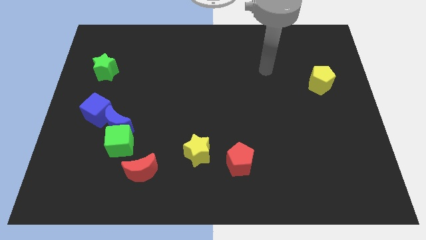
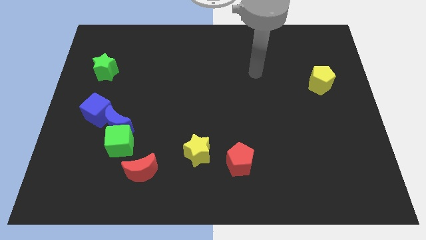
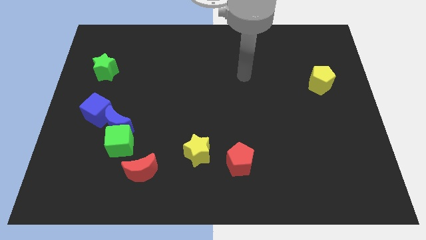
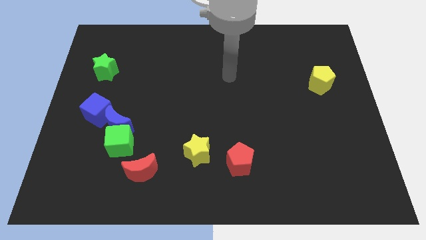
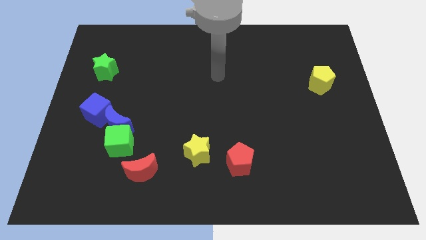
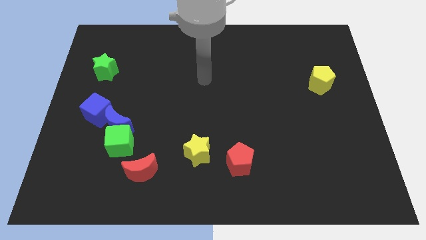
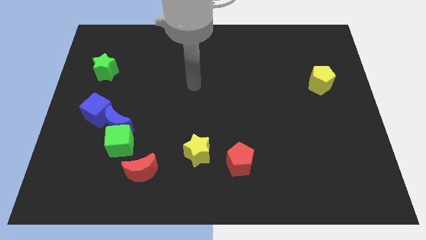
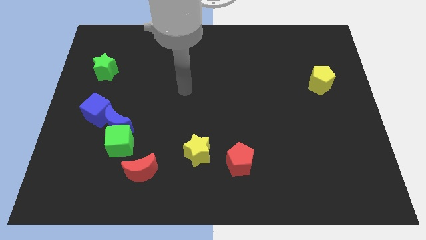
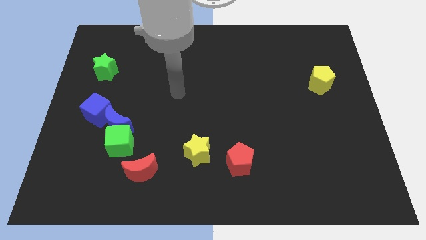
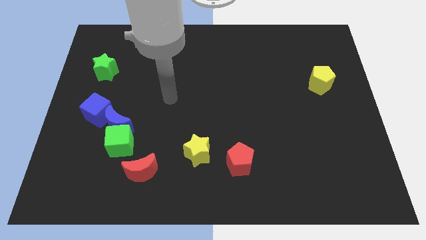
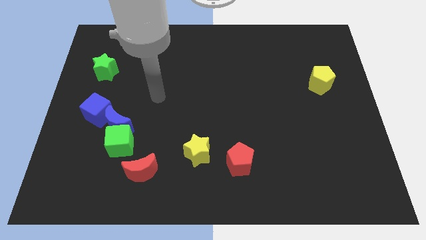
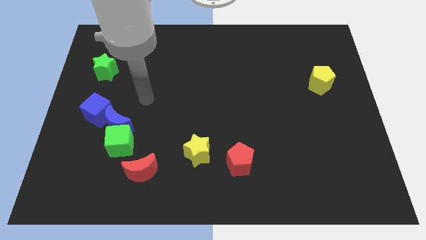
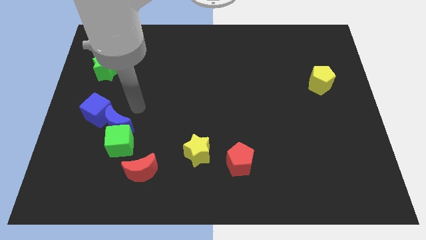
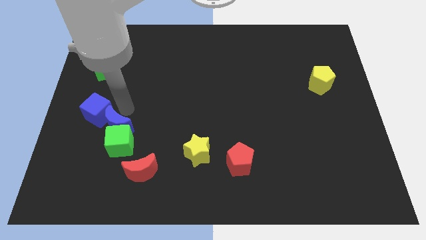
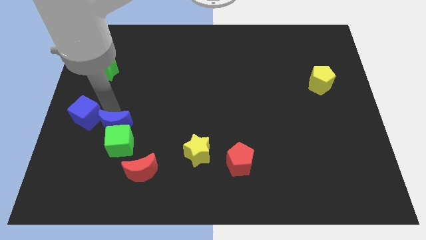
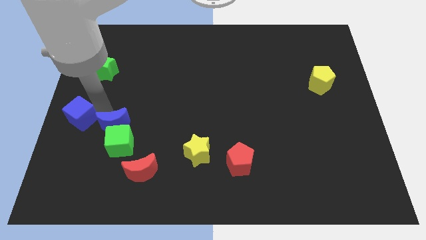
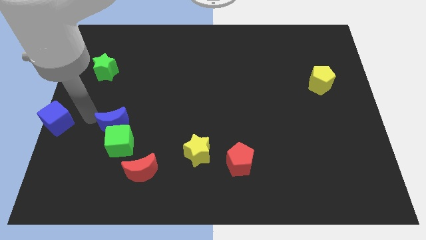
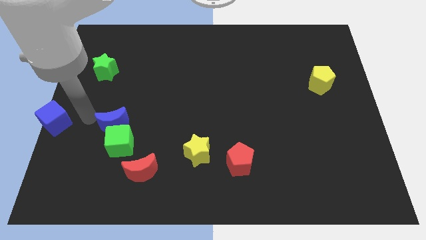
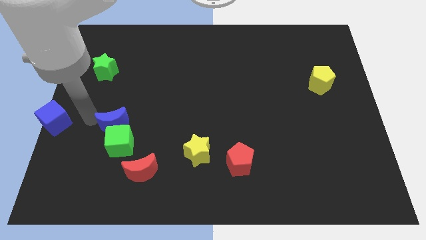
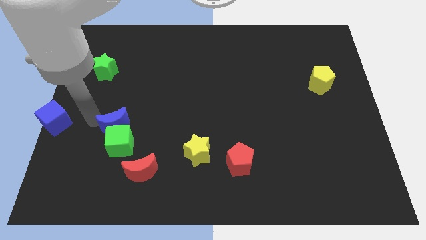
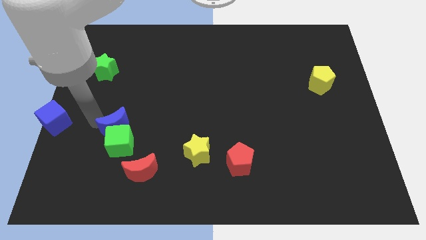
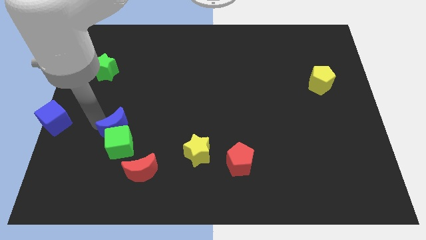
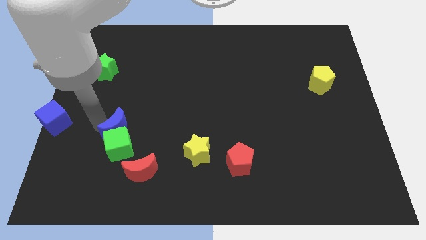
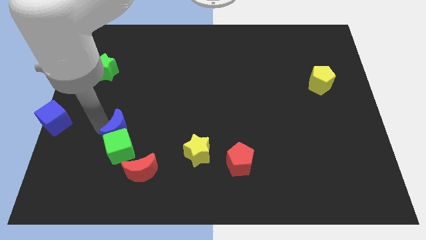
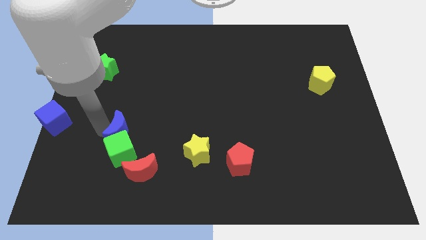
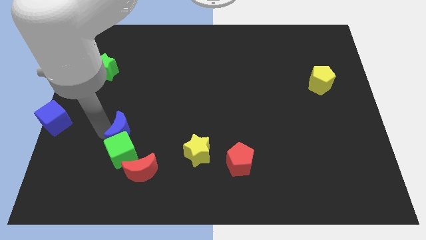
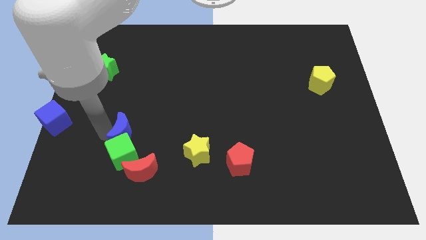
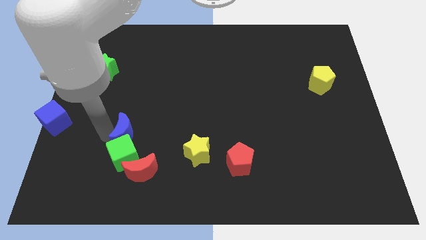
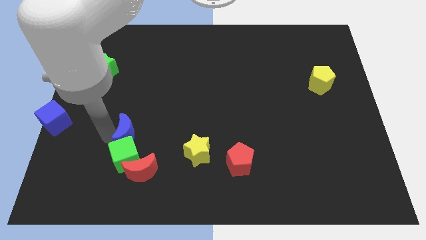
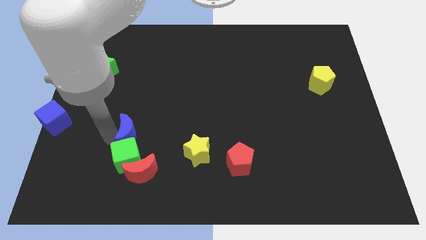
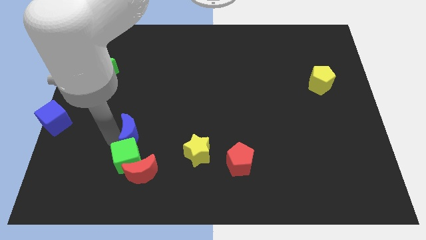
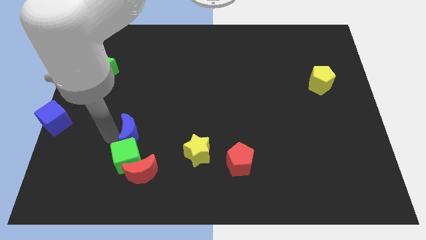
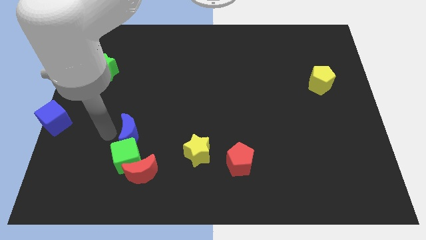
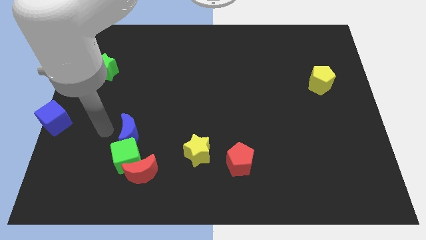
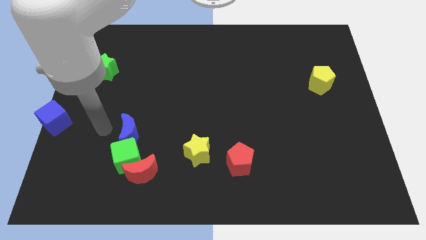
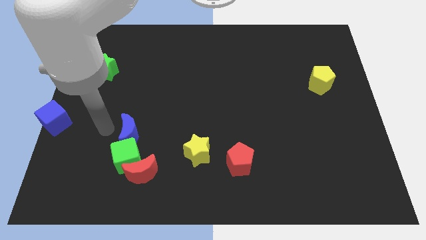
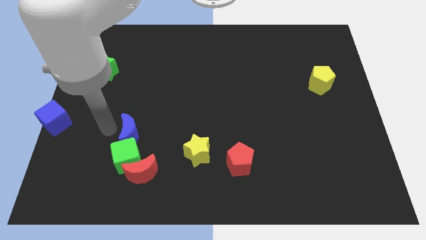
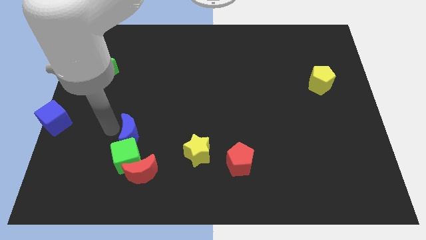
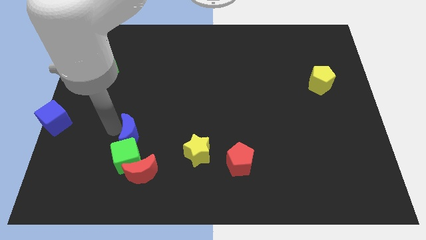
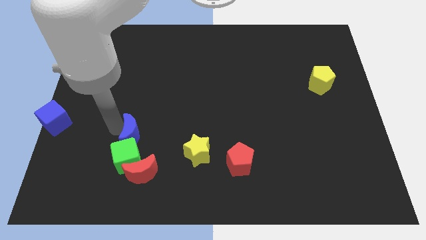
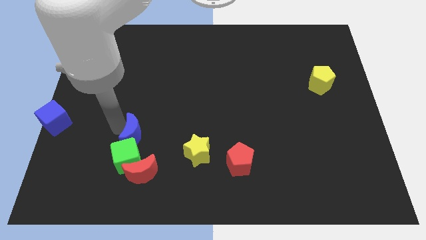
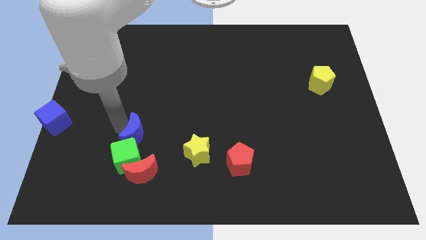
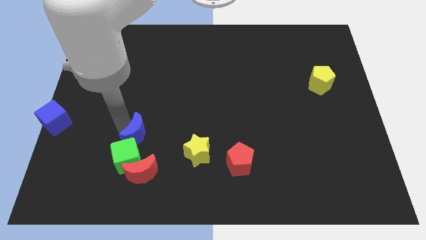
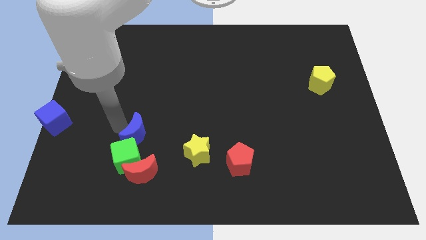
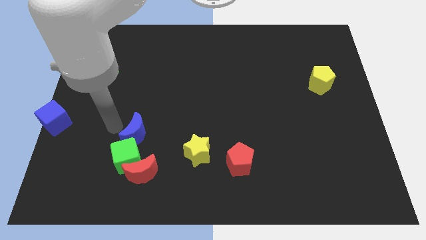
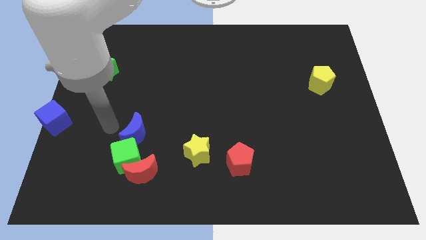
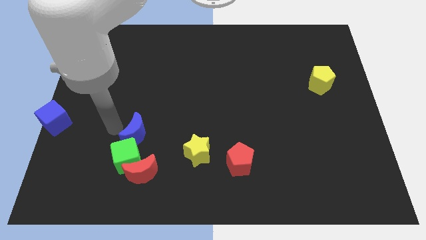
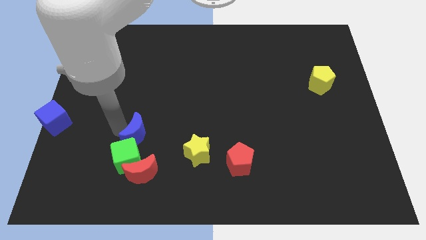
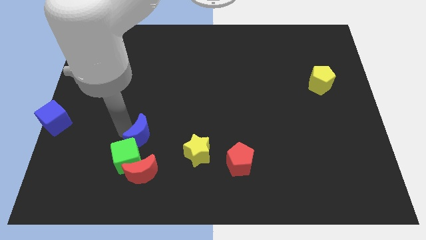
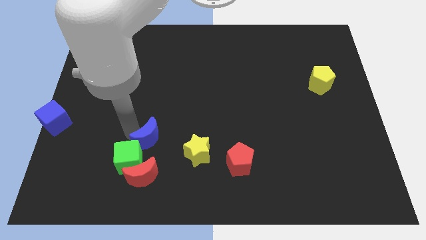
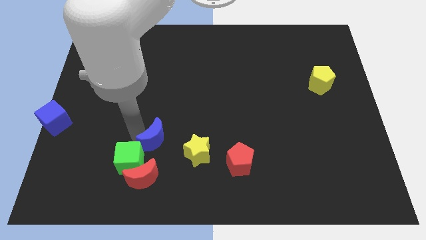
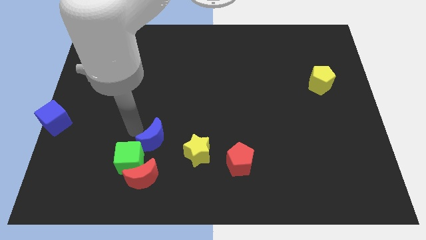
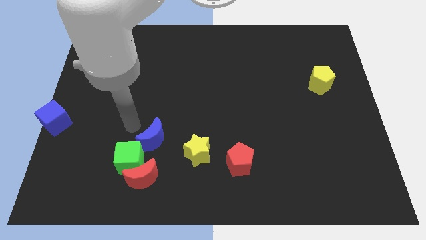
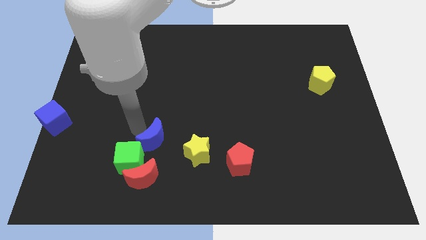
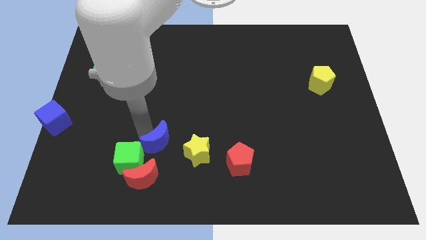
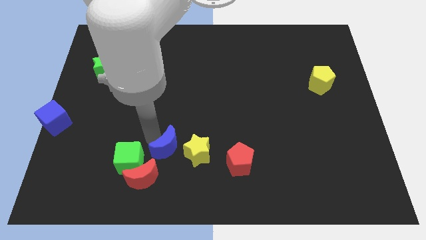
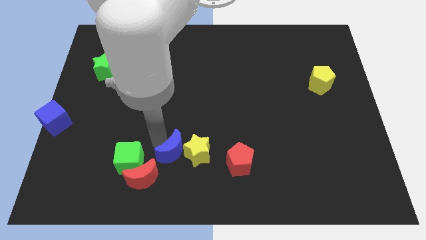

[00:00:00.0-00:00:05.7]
push the blue moon just left of the red pentagon
